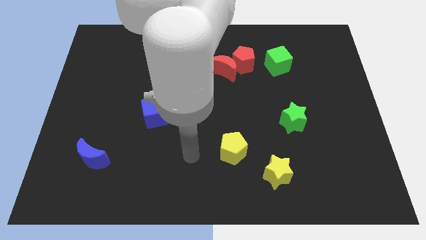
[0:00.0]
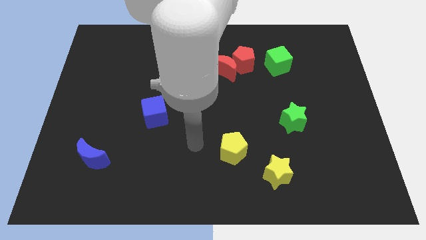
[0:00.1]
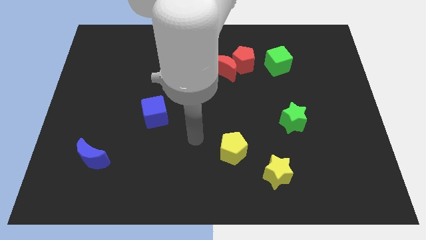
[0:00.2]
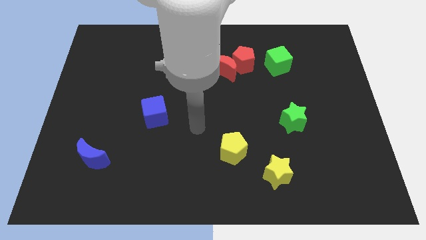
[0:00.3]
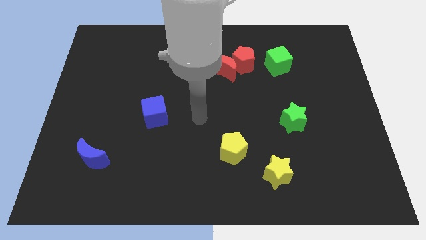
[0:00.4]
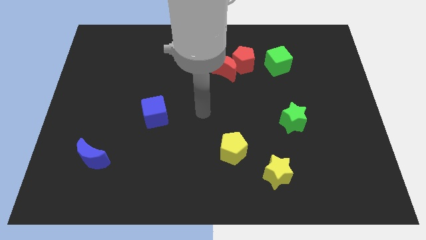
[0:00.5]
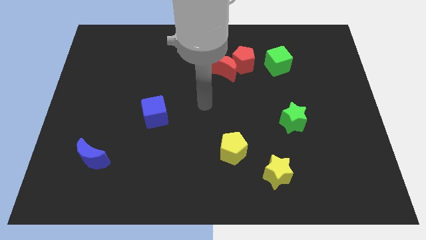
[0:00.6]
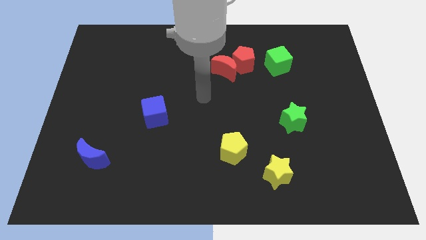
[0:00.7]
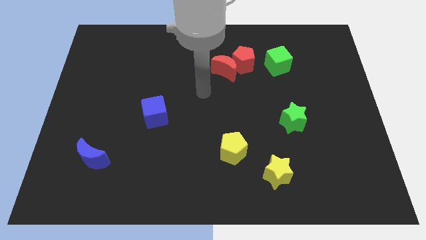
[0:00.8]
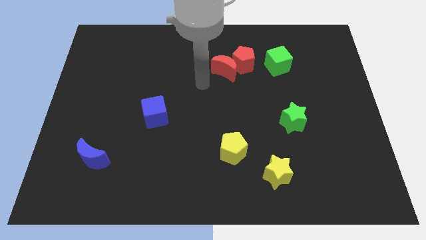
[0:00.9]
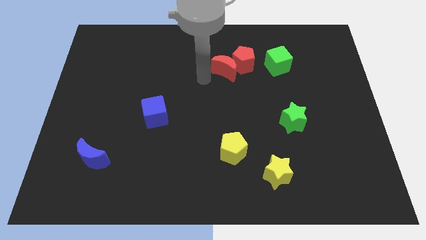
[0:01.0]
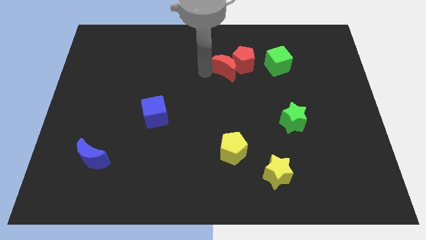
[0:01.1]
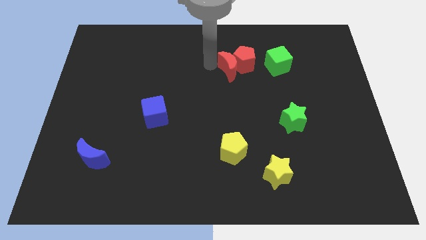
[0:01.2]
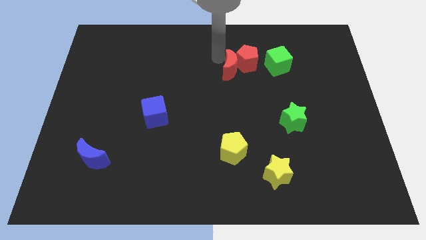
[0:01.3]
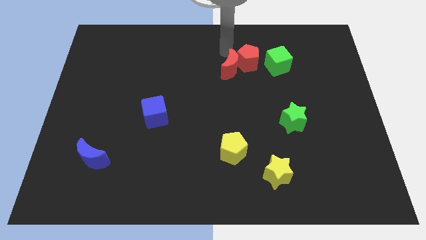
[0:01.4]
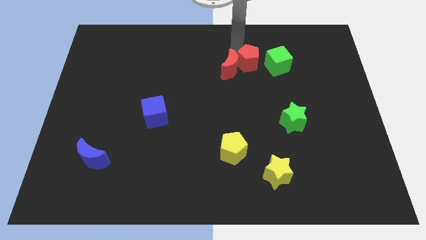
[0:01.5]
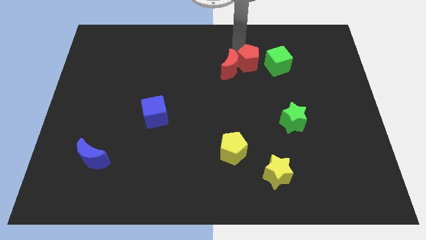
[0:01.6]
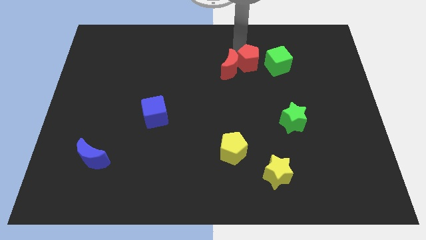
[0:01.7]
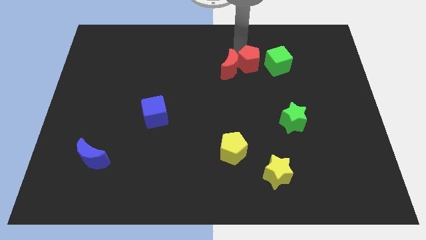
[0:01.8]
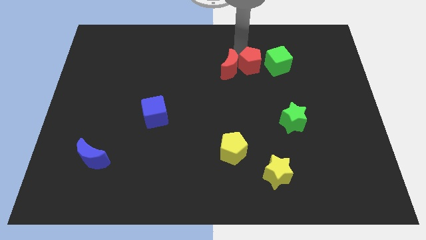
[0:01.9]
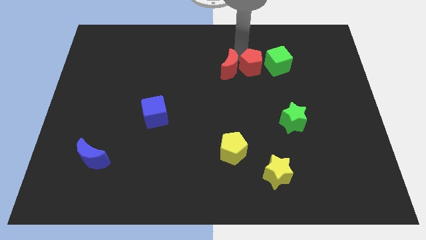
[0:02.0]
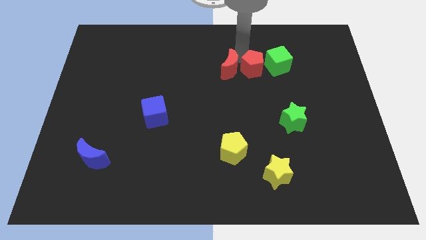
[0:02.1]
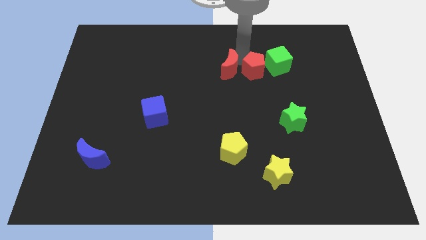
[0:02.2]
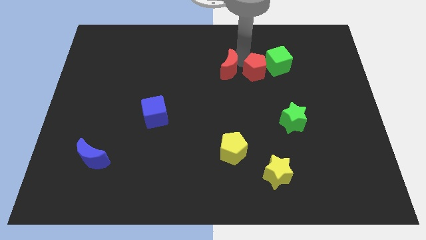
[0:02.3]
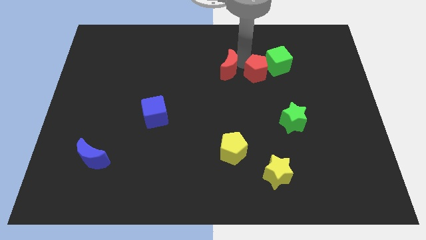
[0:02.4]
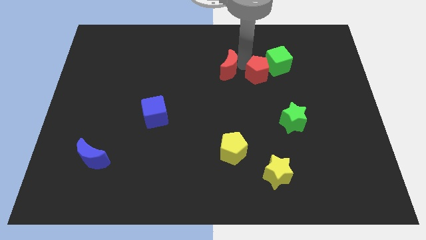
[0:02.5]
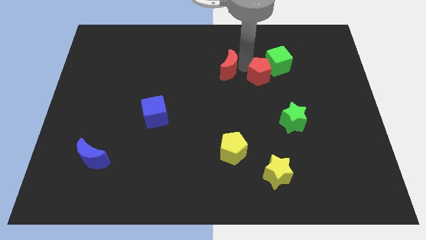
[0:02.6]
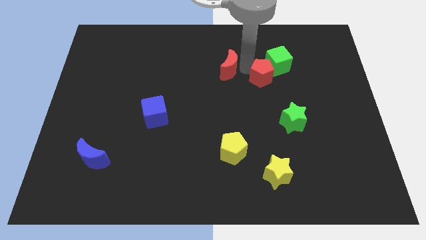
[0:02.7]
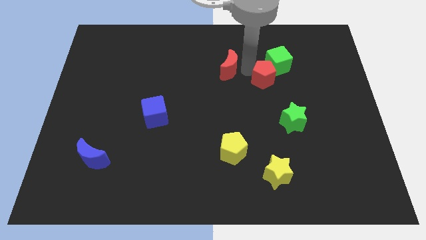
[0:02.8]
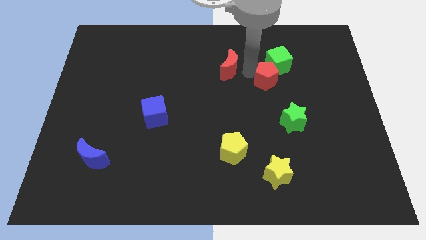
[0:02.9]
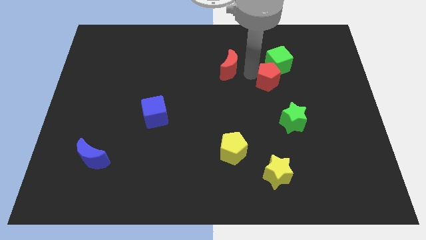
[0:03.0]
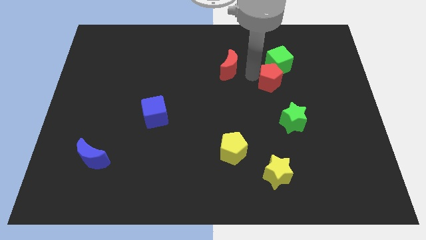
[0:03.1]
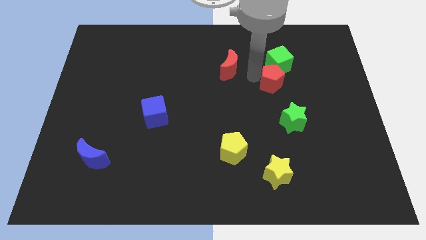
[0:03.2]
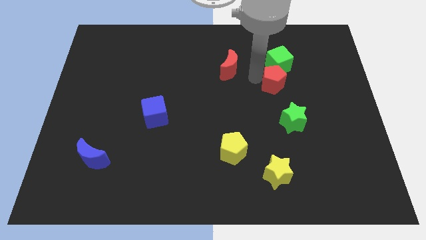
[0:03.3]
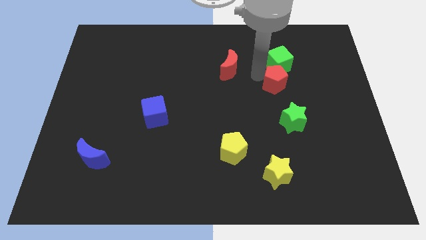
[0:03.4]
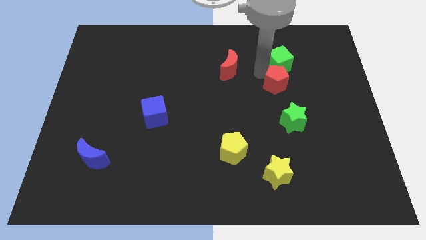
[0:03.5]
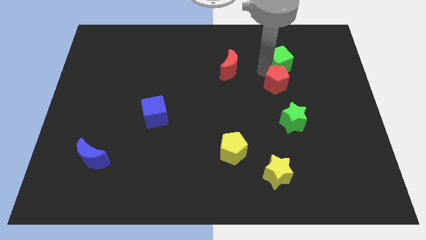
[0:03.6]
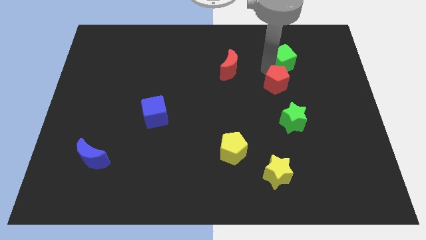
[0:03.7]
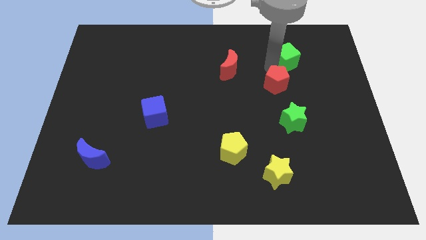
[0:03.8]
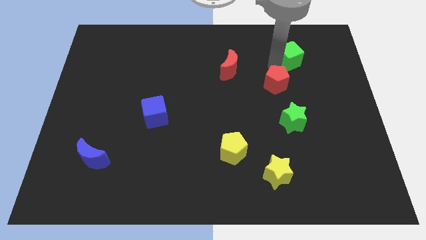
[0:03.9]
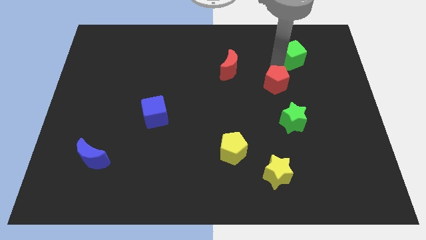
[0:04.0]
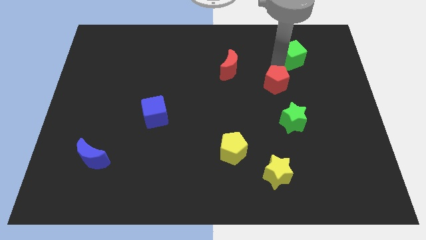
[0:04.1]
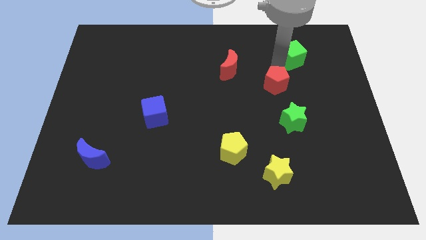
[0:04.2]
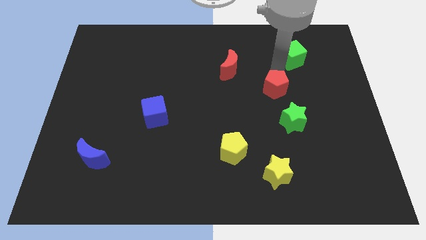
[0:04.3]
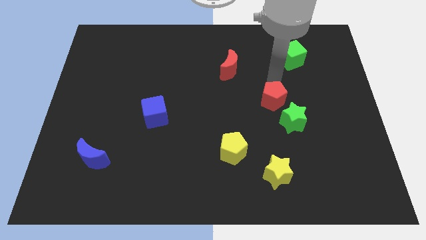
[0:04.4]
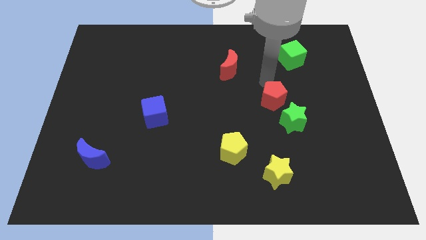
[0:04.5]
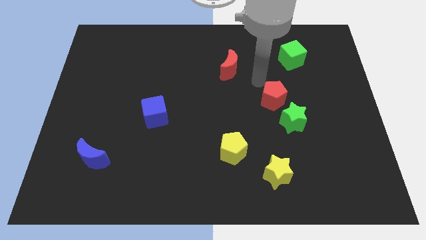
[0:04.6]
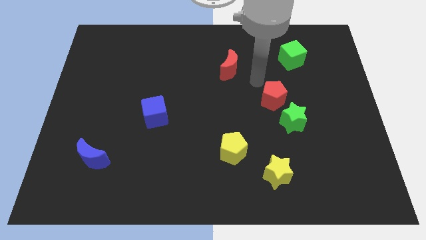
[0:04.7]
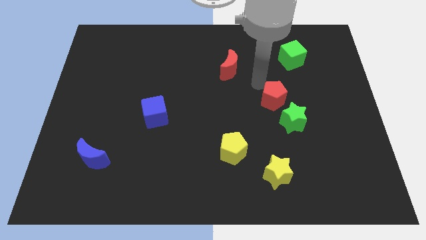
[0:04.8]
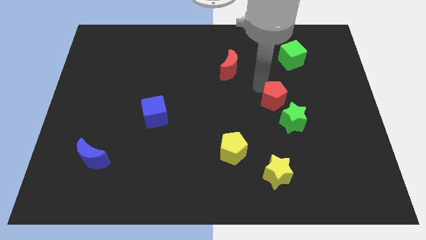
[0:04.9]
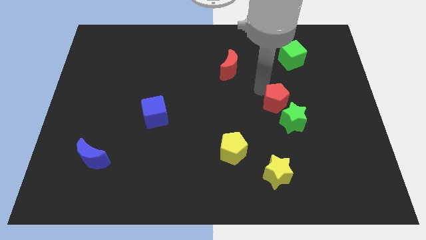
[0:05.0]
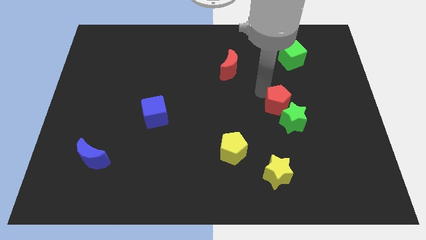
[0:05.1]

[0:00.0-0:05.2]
move the red pentagon next to the green star

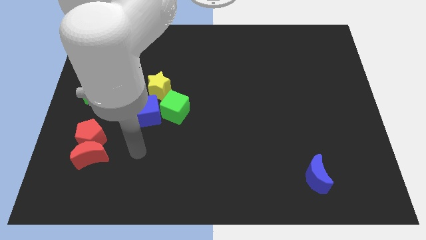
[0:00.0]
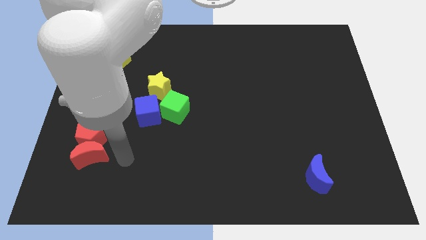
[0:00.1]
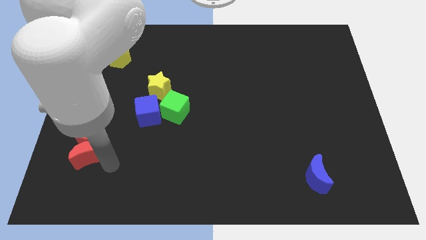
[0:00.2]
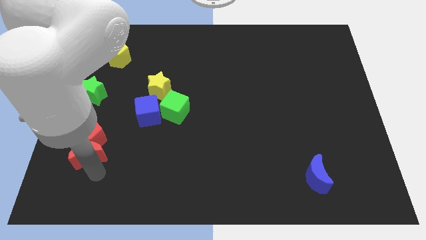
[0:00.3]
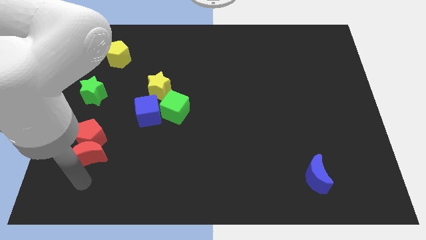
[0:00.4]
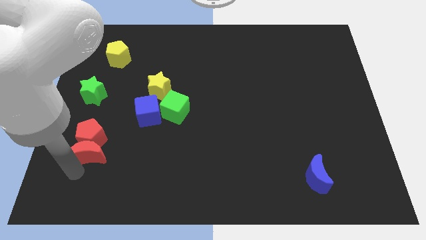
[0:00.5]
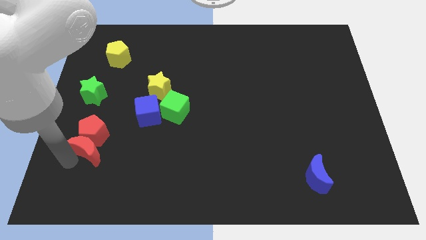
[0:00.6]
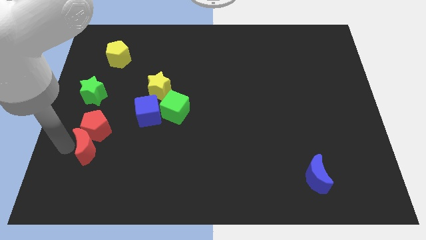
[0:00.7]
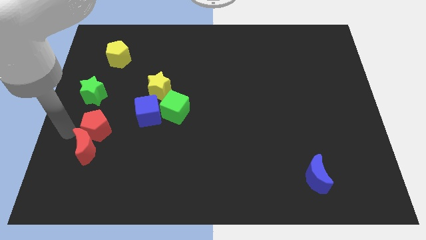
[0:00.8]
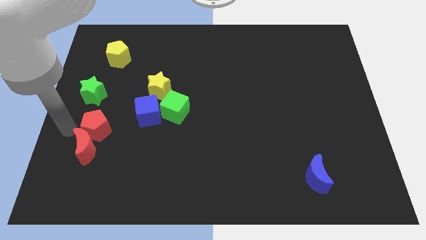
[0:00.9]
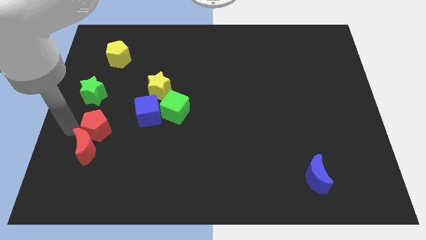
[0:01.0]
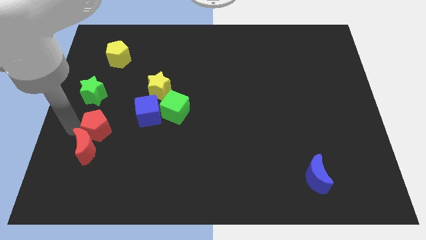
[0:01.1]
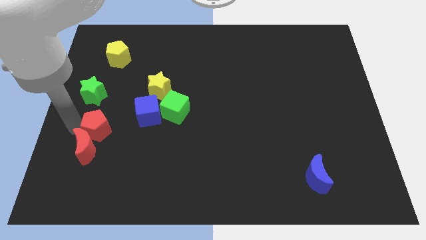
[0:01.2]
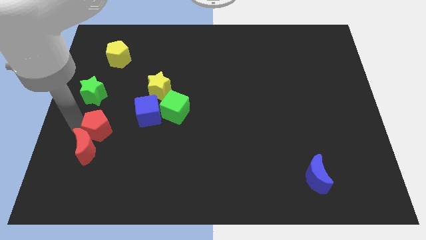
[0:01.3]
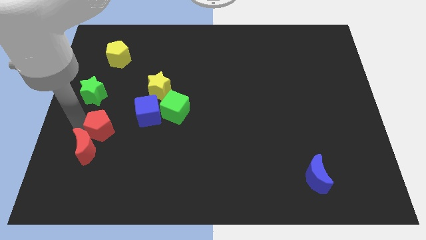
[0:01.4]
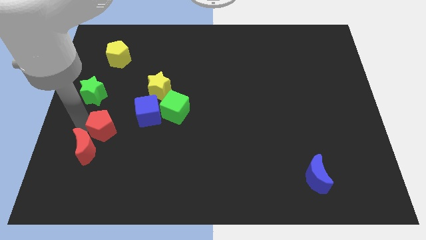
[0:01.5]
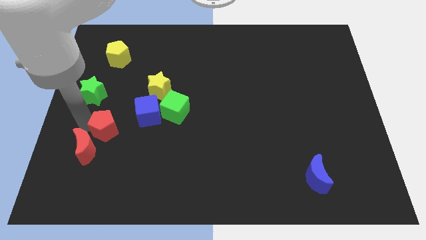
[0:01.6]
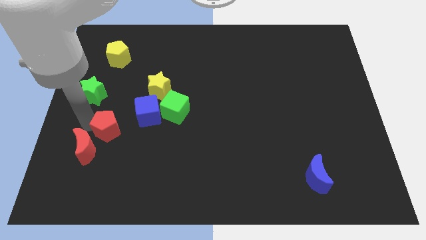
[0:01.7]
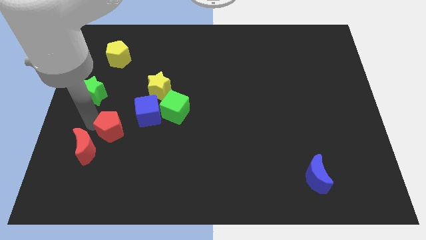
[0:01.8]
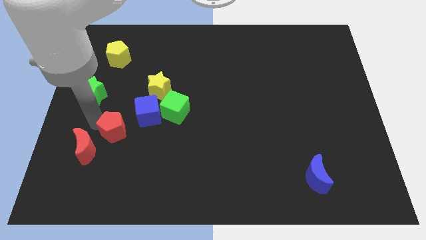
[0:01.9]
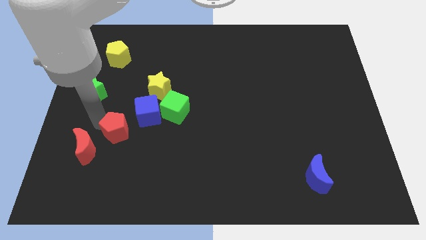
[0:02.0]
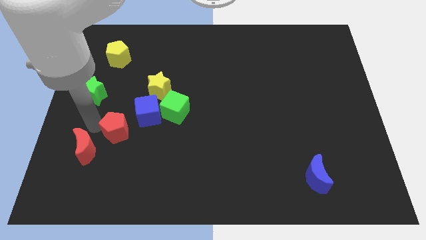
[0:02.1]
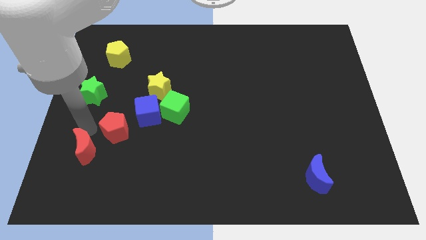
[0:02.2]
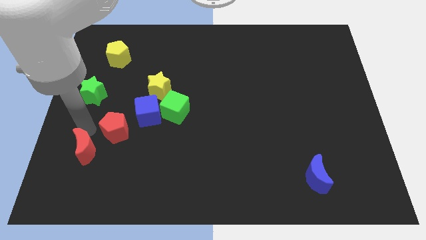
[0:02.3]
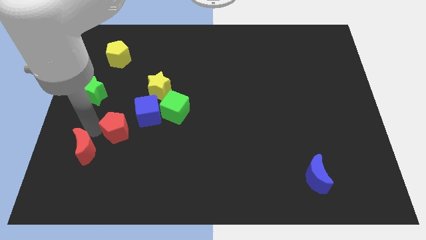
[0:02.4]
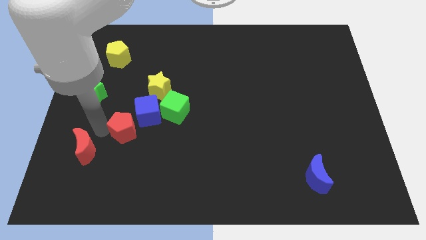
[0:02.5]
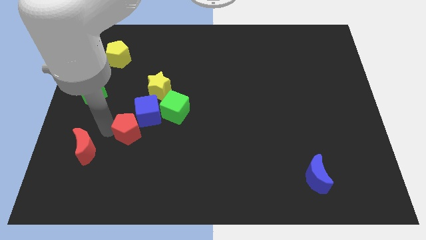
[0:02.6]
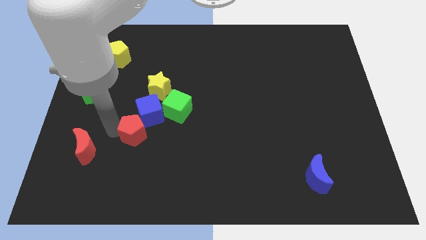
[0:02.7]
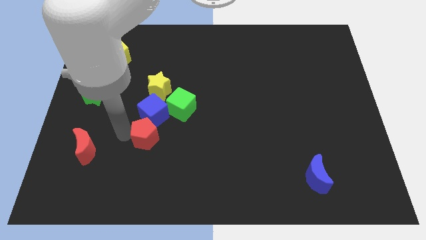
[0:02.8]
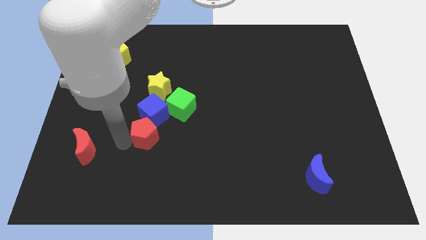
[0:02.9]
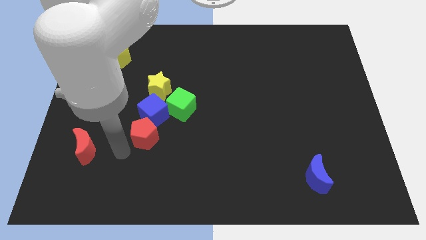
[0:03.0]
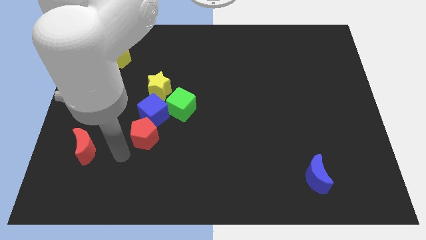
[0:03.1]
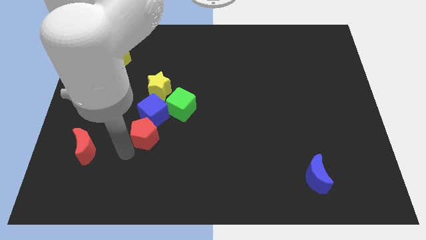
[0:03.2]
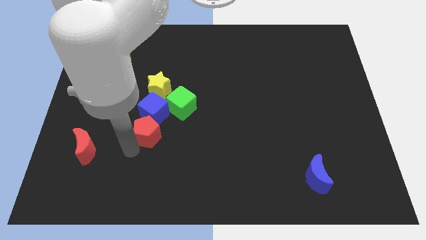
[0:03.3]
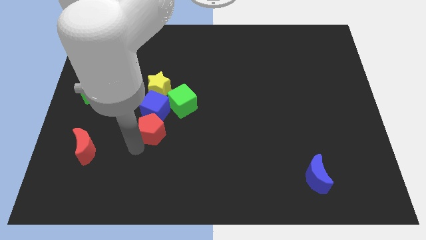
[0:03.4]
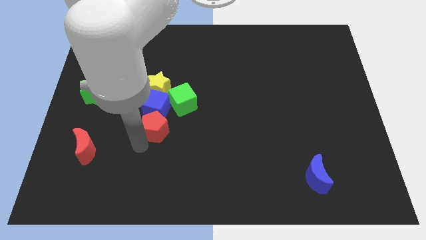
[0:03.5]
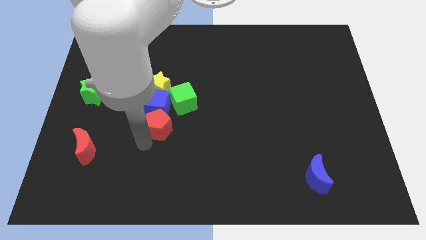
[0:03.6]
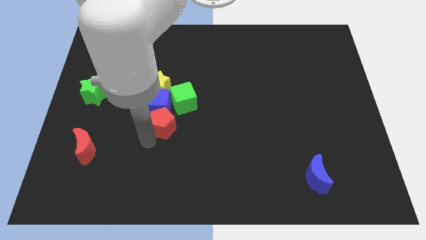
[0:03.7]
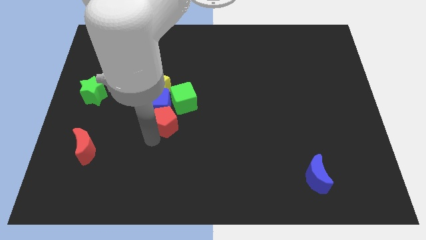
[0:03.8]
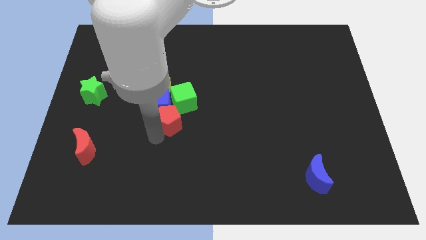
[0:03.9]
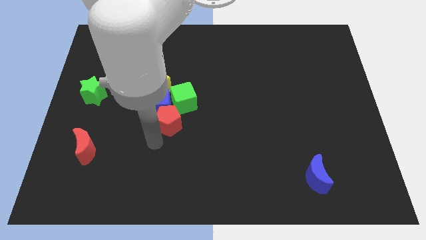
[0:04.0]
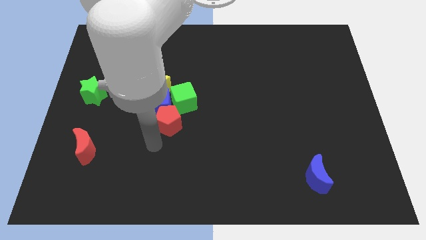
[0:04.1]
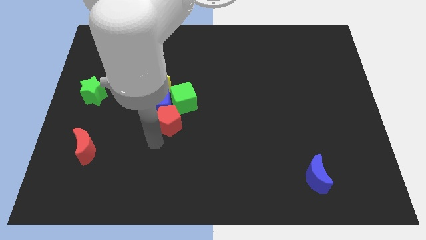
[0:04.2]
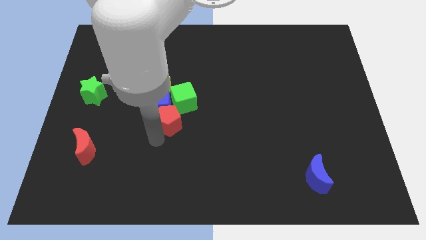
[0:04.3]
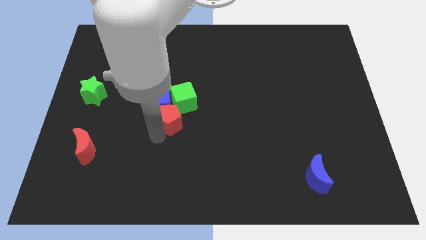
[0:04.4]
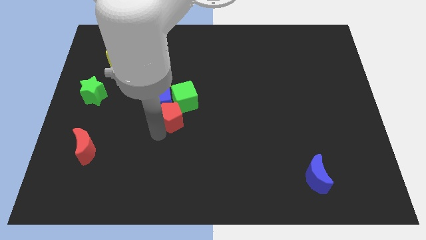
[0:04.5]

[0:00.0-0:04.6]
move the red pentagon to the green cube
